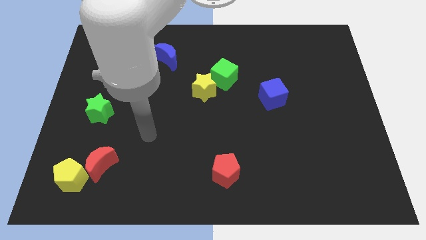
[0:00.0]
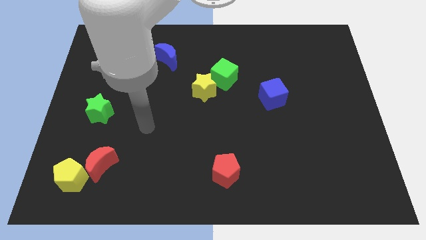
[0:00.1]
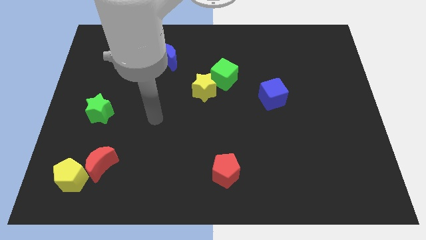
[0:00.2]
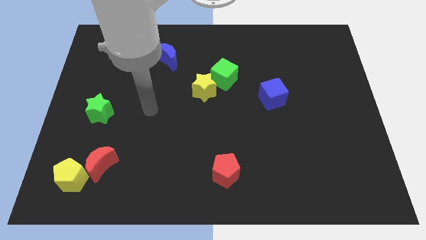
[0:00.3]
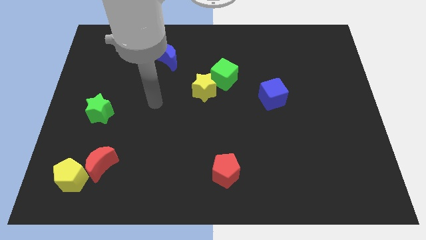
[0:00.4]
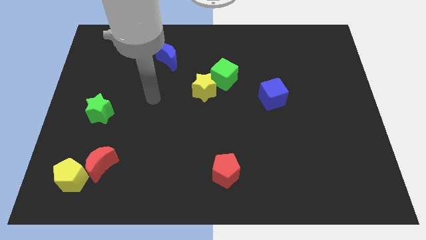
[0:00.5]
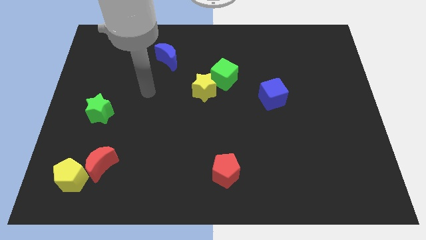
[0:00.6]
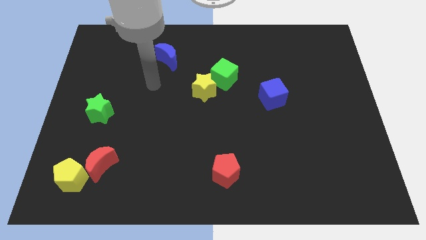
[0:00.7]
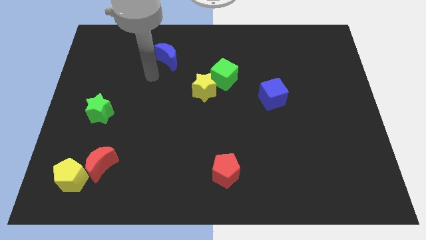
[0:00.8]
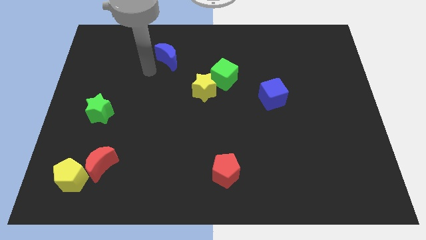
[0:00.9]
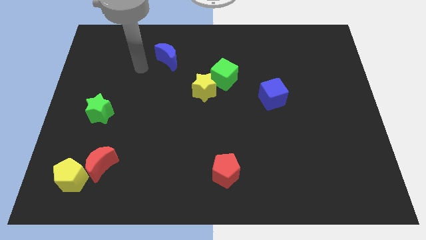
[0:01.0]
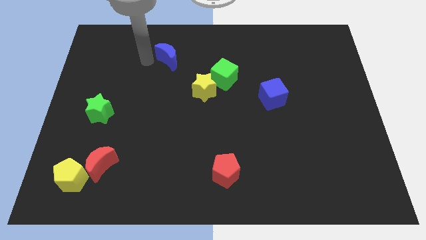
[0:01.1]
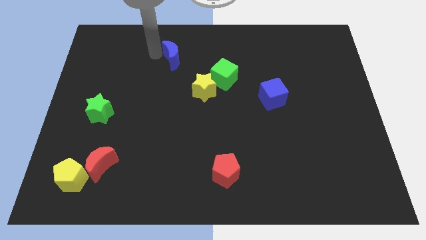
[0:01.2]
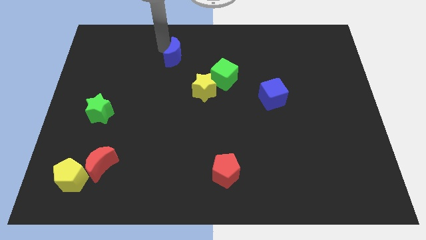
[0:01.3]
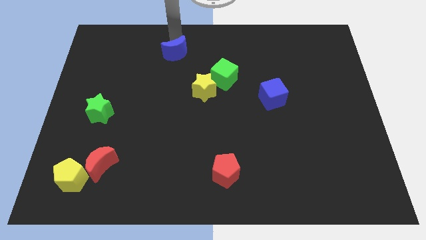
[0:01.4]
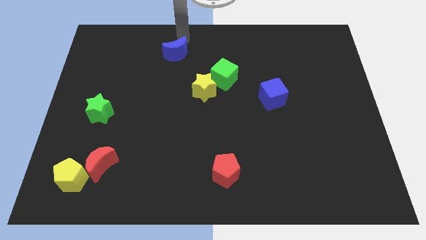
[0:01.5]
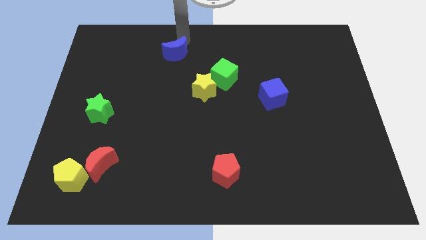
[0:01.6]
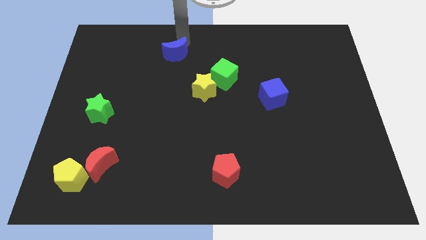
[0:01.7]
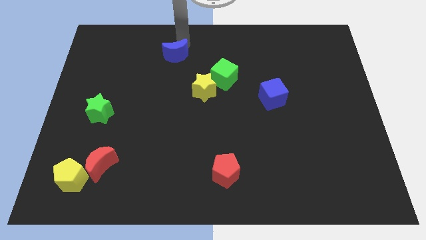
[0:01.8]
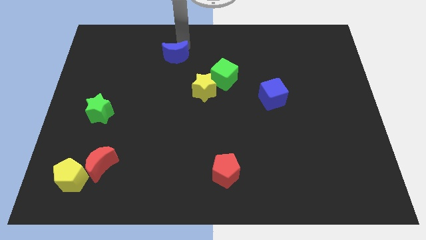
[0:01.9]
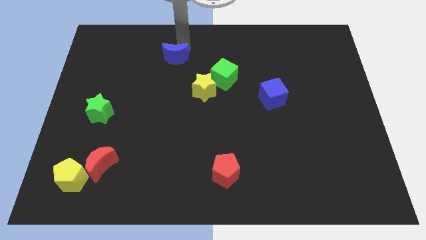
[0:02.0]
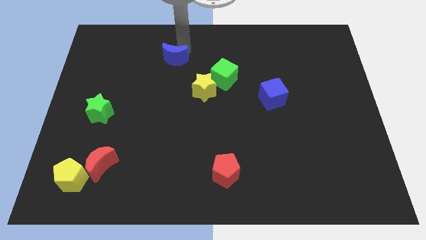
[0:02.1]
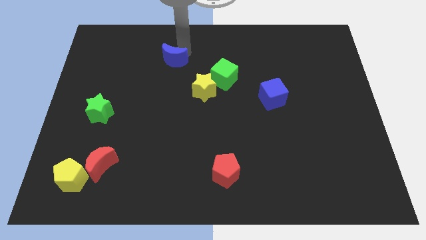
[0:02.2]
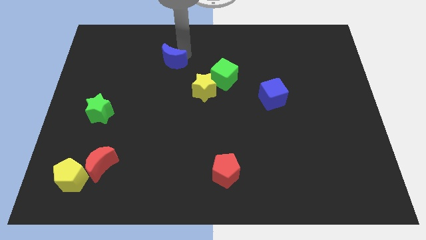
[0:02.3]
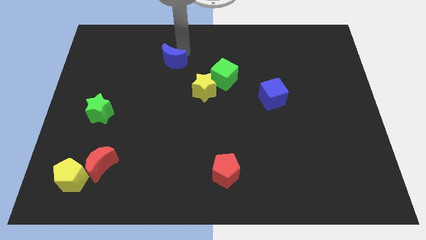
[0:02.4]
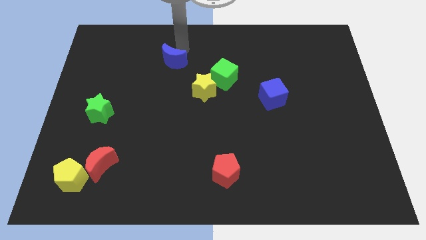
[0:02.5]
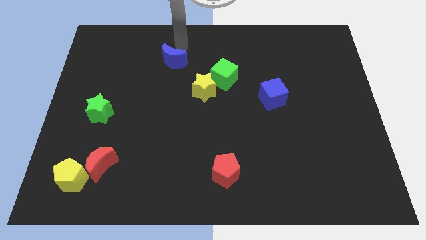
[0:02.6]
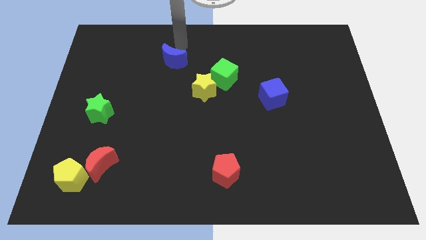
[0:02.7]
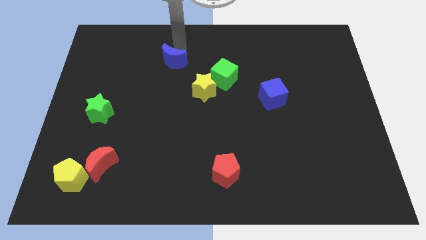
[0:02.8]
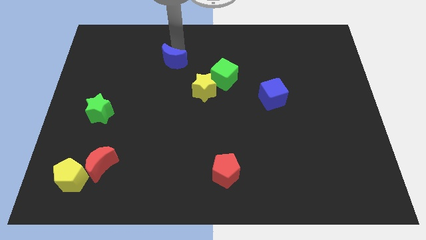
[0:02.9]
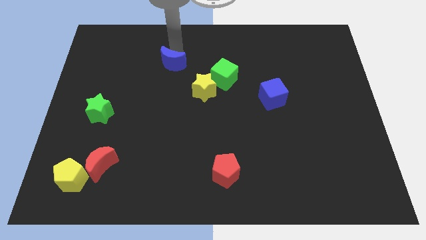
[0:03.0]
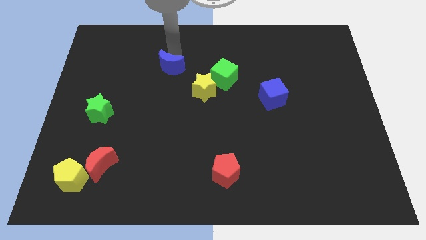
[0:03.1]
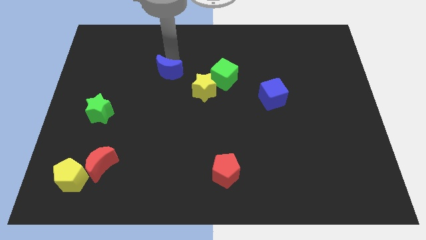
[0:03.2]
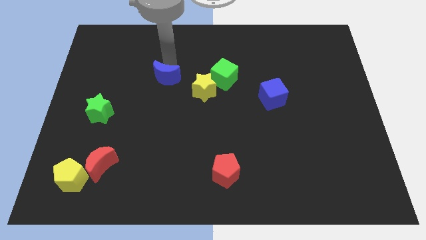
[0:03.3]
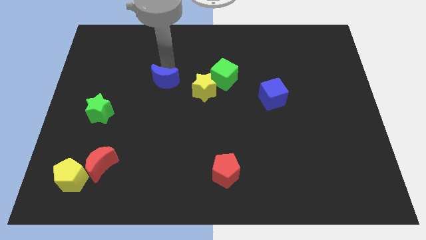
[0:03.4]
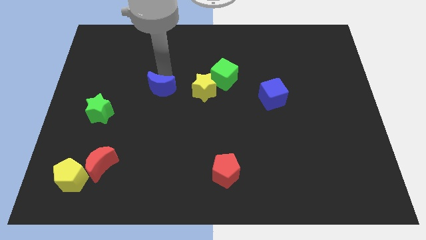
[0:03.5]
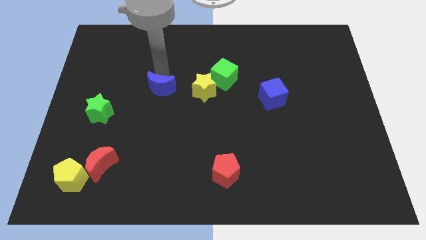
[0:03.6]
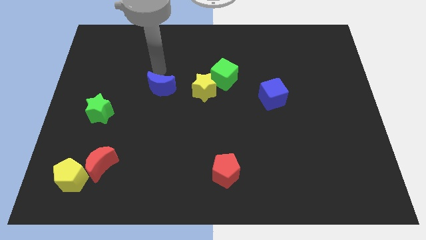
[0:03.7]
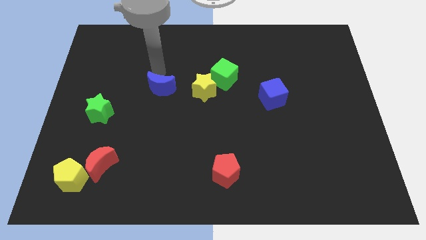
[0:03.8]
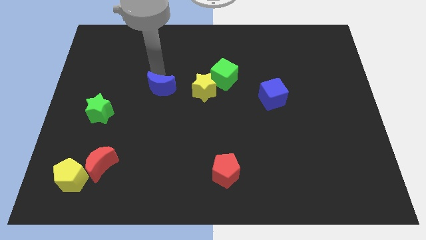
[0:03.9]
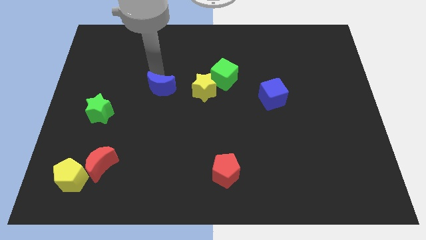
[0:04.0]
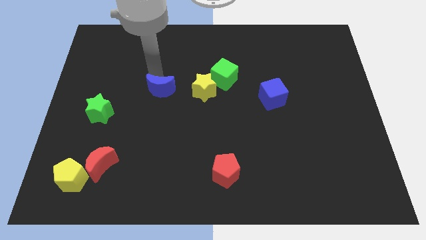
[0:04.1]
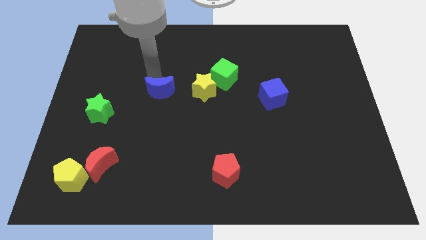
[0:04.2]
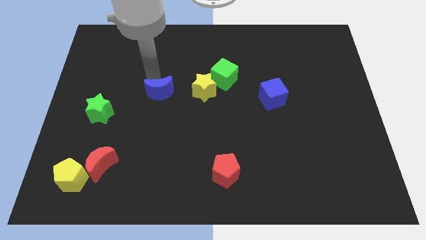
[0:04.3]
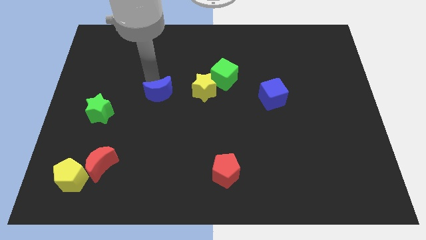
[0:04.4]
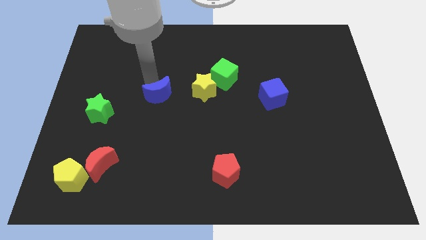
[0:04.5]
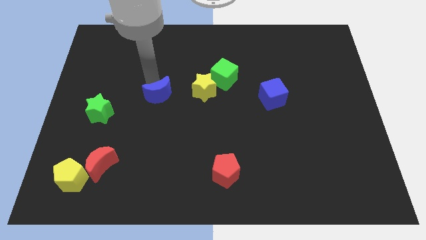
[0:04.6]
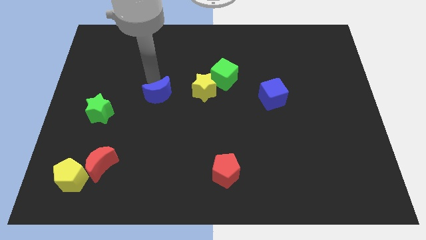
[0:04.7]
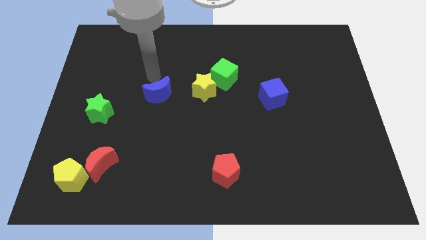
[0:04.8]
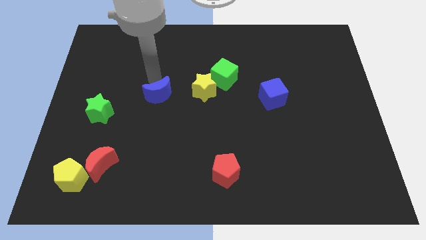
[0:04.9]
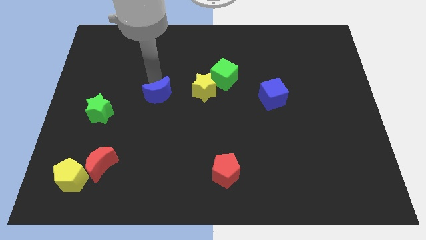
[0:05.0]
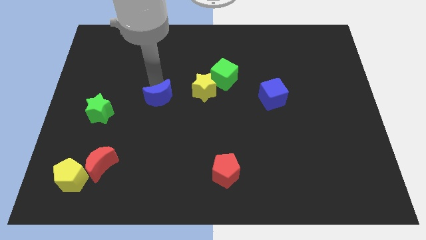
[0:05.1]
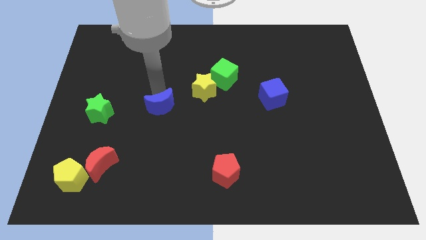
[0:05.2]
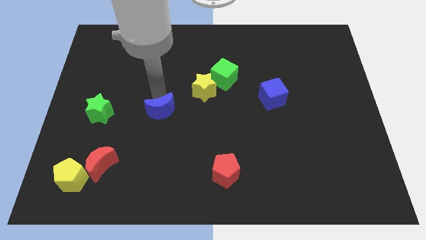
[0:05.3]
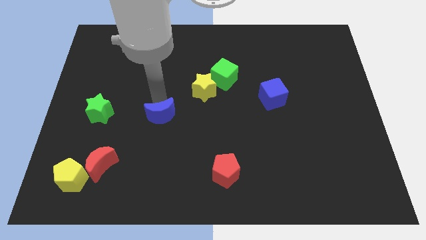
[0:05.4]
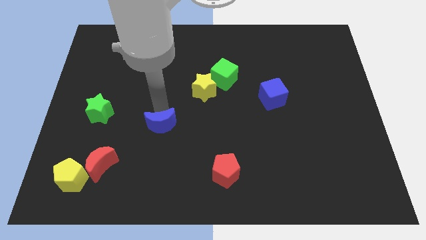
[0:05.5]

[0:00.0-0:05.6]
slide the blue moon downwards

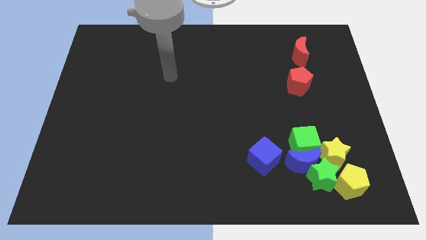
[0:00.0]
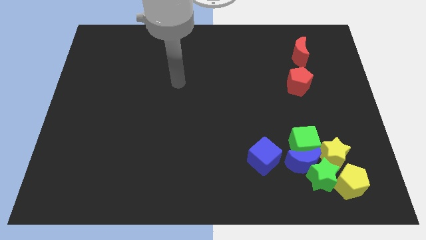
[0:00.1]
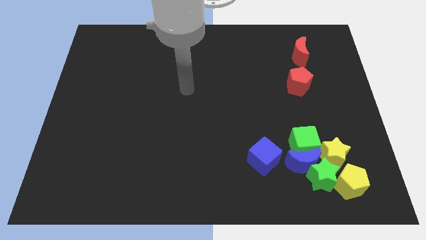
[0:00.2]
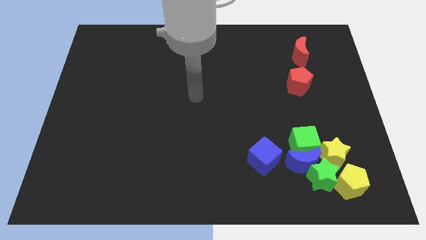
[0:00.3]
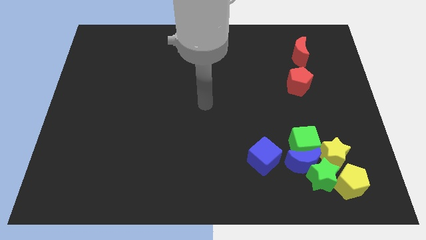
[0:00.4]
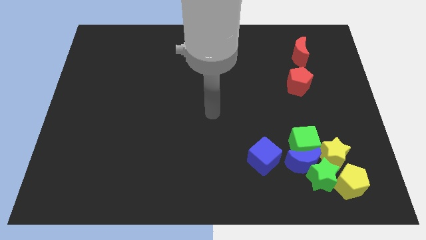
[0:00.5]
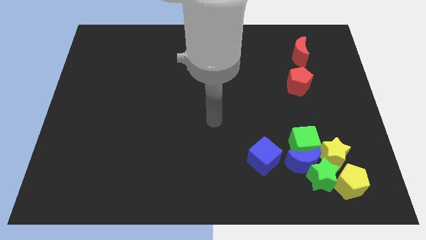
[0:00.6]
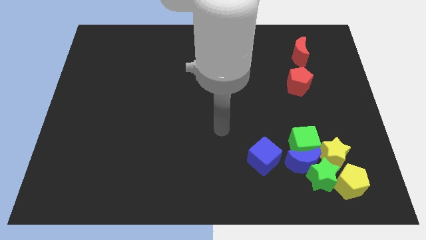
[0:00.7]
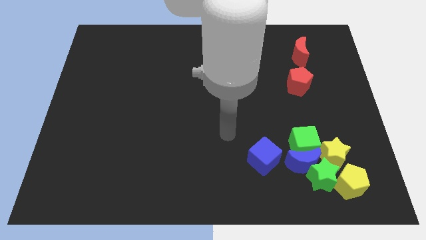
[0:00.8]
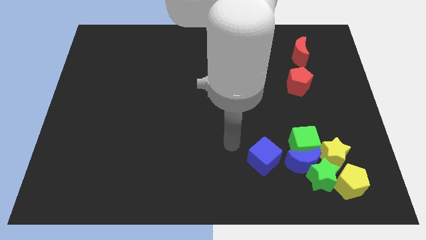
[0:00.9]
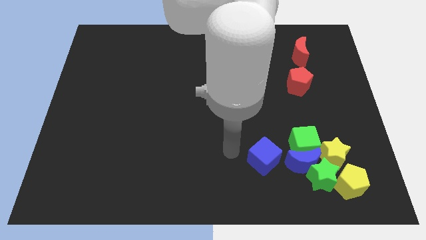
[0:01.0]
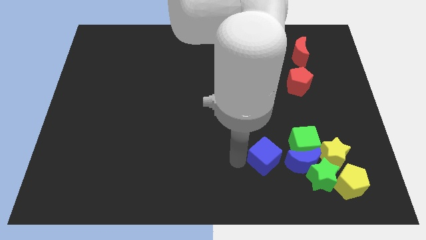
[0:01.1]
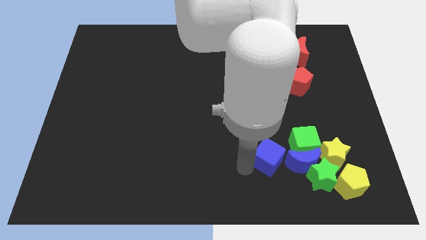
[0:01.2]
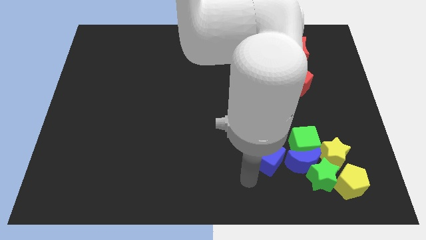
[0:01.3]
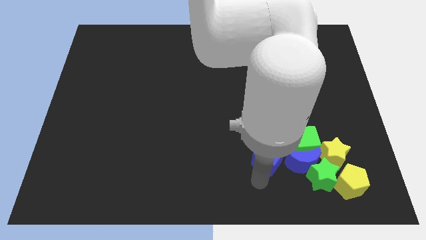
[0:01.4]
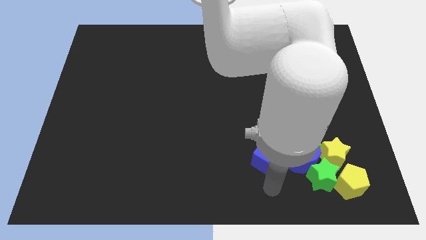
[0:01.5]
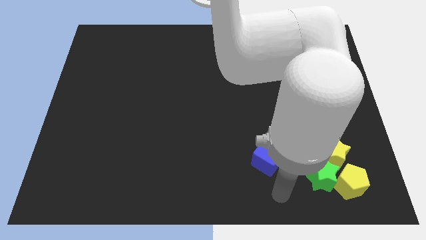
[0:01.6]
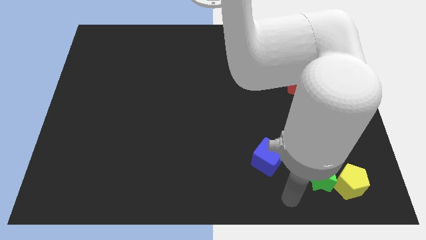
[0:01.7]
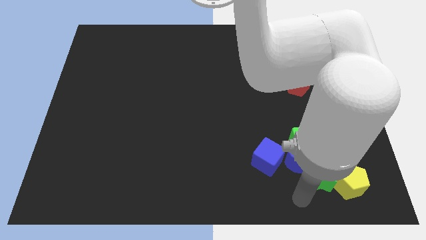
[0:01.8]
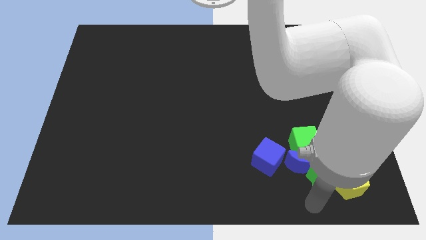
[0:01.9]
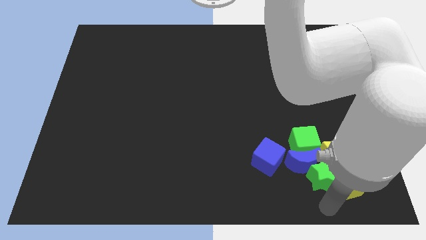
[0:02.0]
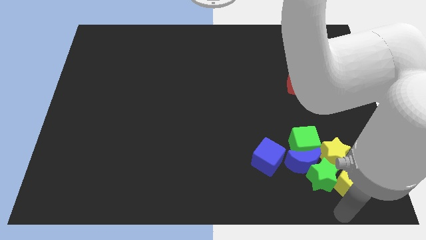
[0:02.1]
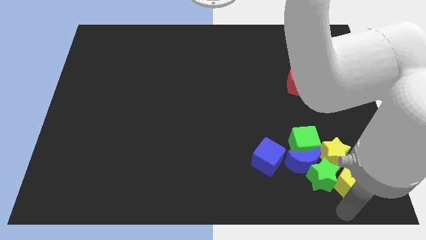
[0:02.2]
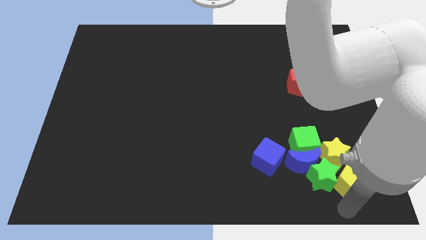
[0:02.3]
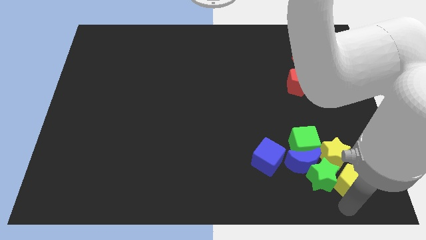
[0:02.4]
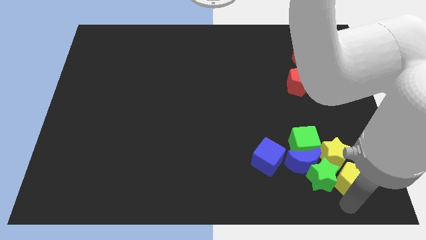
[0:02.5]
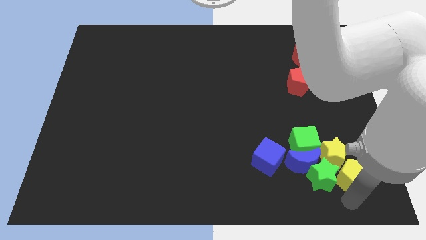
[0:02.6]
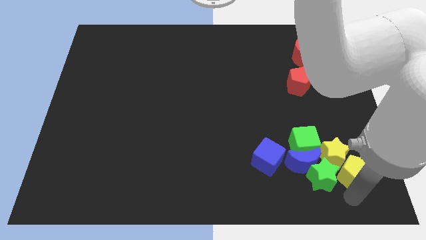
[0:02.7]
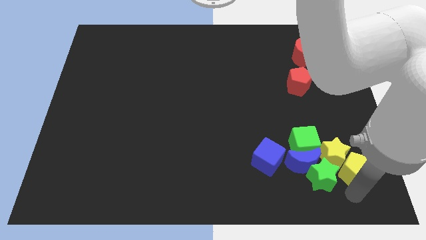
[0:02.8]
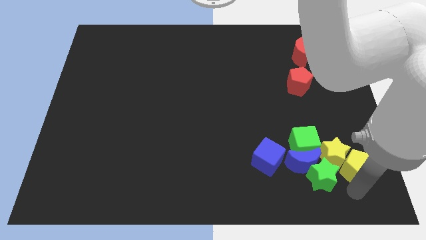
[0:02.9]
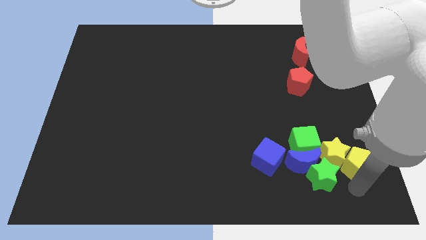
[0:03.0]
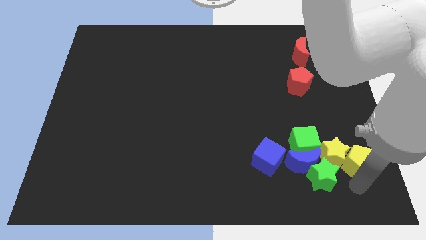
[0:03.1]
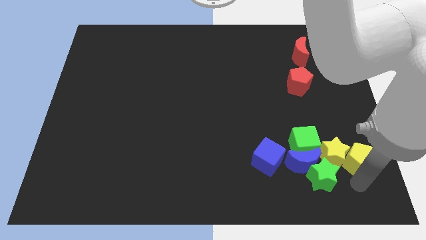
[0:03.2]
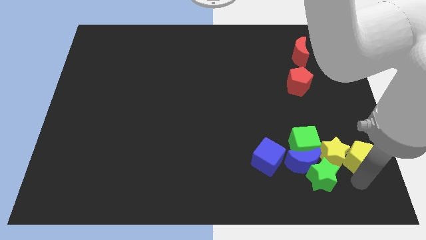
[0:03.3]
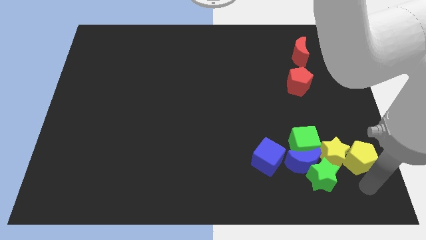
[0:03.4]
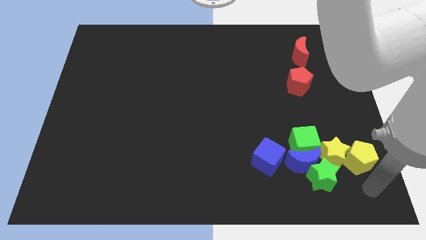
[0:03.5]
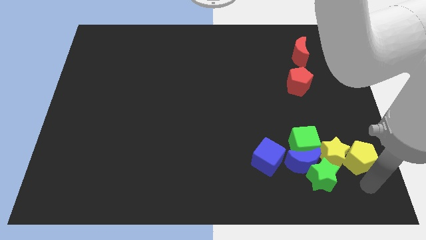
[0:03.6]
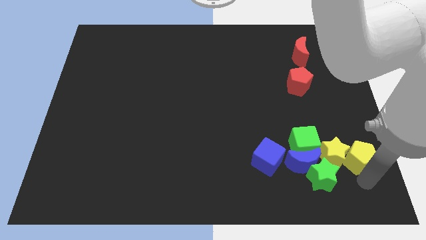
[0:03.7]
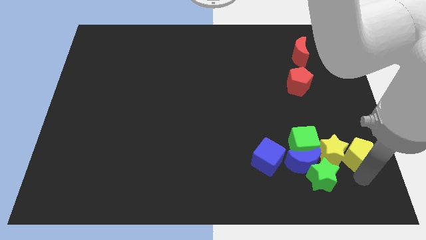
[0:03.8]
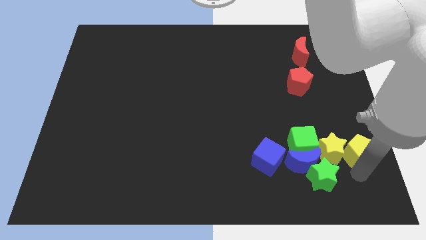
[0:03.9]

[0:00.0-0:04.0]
slide the yellow pentagon a bit up
